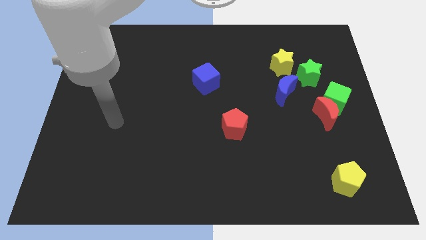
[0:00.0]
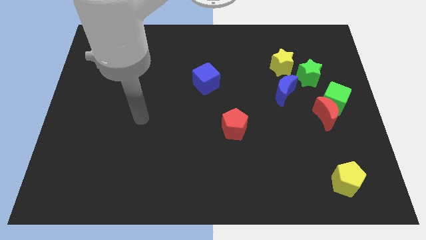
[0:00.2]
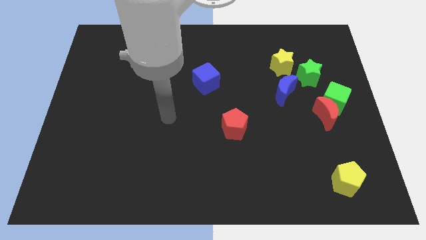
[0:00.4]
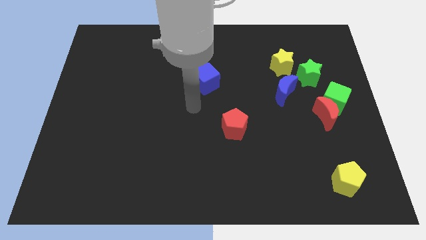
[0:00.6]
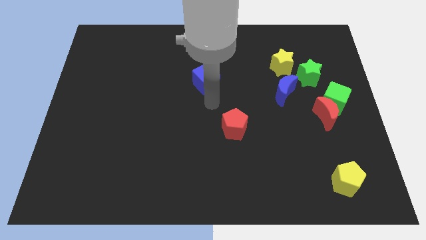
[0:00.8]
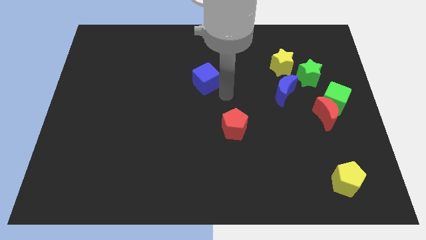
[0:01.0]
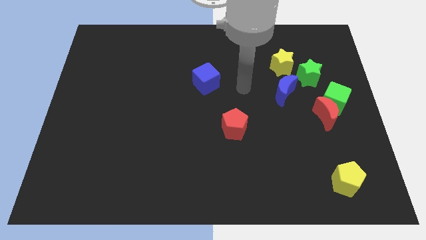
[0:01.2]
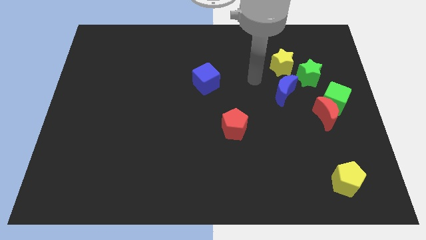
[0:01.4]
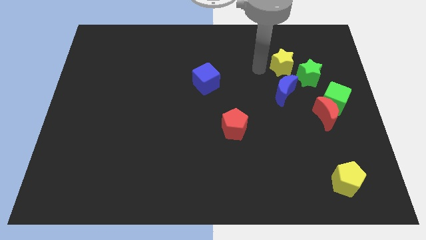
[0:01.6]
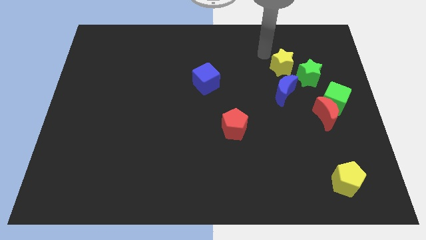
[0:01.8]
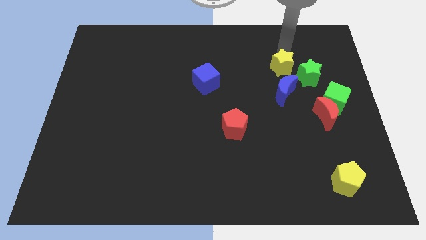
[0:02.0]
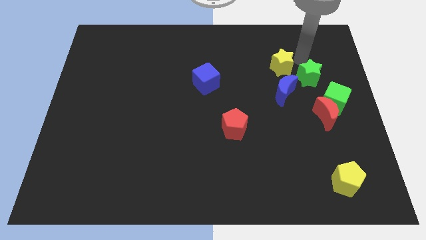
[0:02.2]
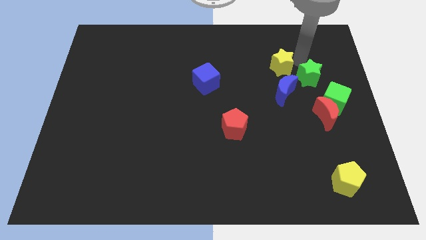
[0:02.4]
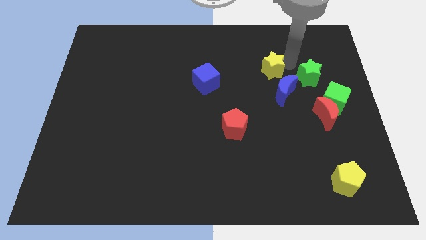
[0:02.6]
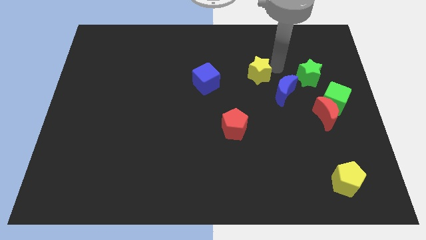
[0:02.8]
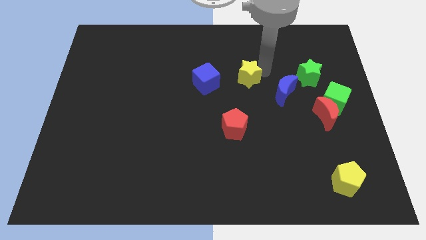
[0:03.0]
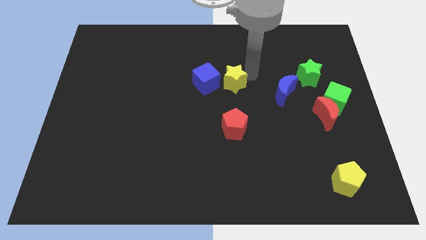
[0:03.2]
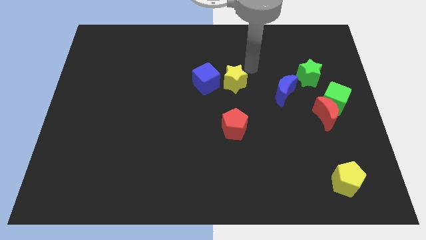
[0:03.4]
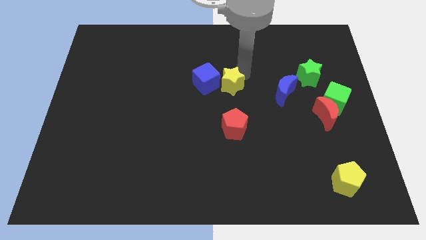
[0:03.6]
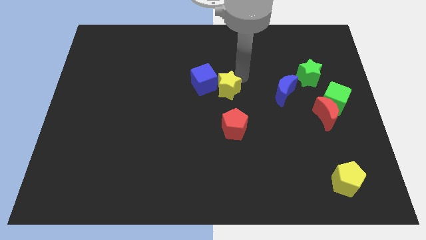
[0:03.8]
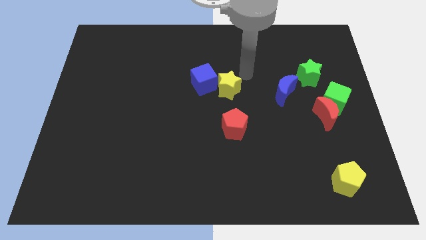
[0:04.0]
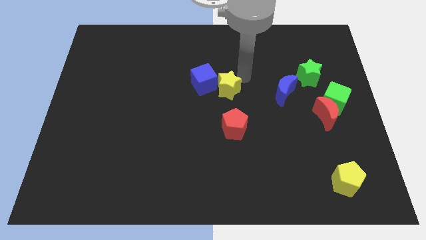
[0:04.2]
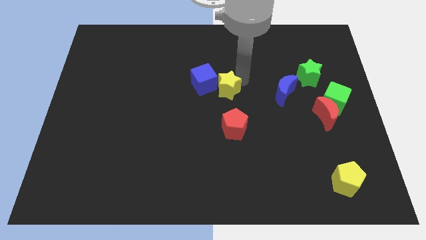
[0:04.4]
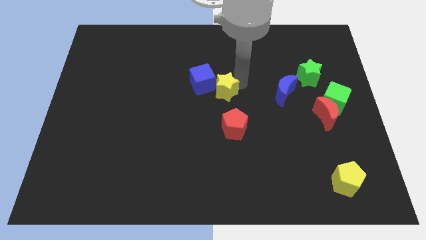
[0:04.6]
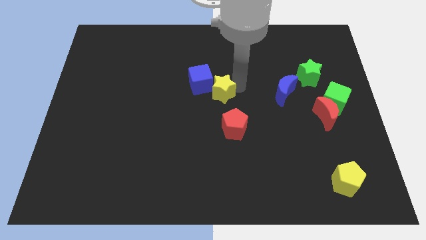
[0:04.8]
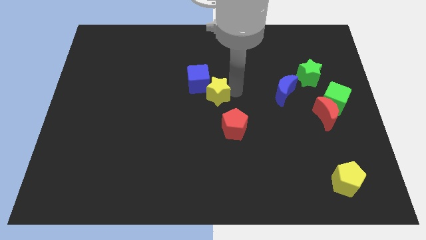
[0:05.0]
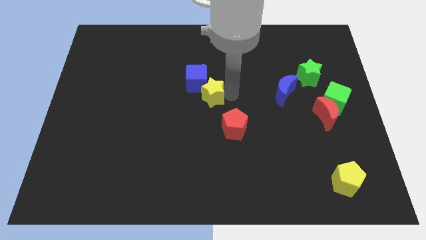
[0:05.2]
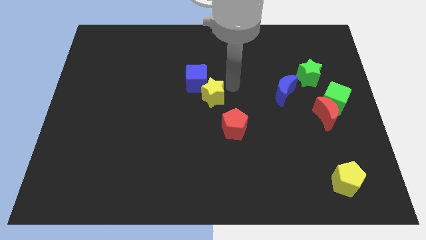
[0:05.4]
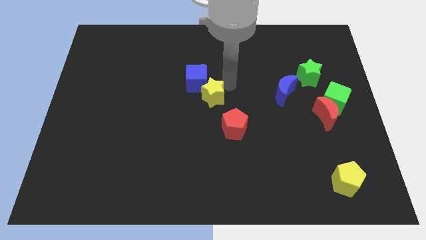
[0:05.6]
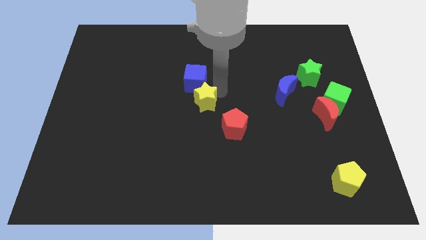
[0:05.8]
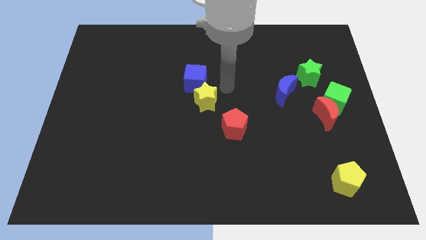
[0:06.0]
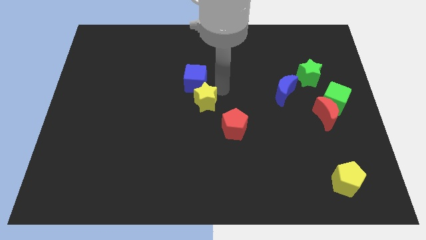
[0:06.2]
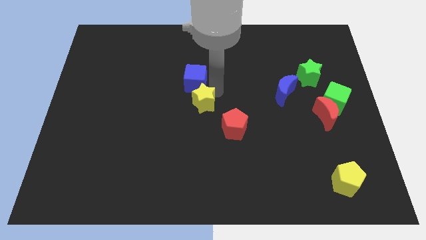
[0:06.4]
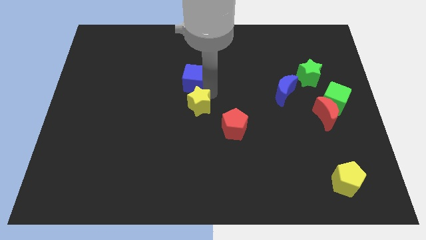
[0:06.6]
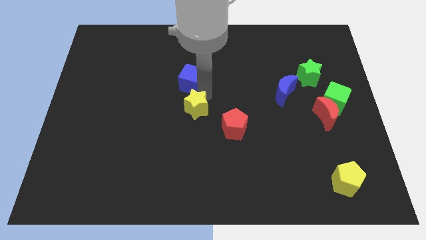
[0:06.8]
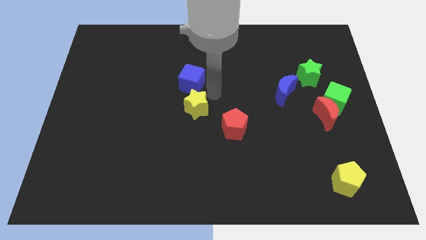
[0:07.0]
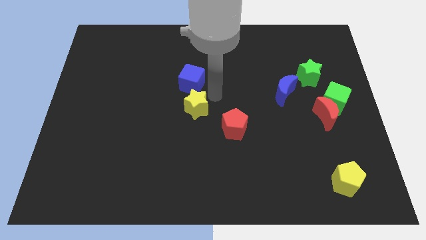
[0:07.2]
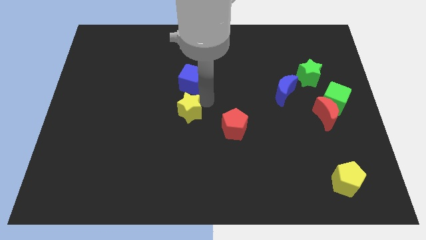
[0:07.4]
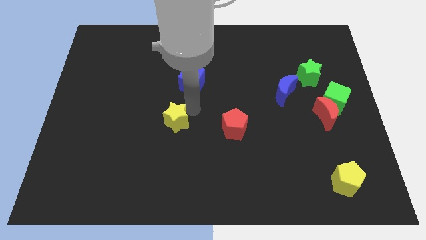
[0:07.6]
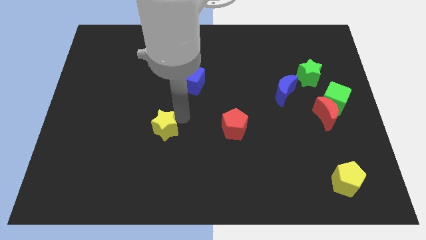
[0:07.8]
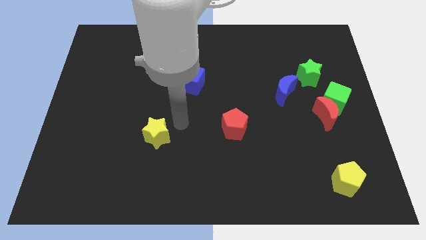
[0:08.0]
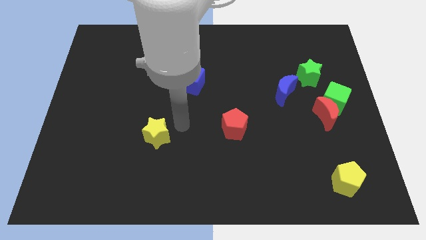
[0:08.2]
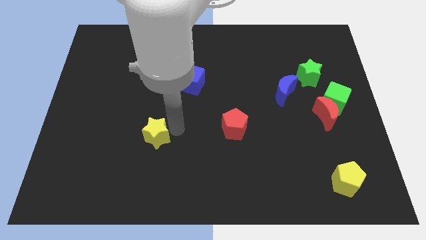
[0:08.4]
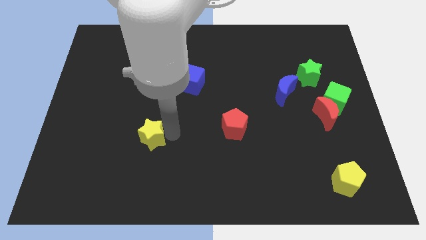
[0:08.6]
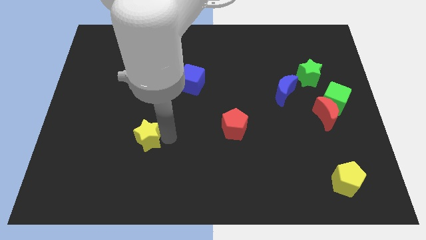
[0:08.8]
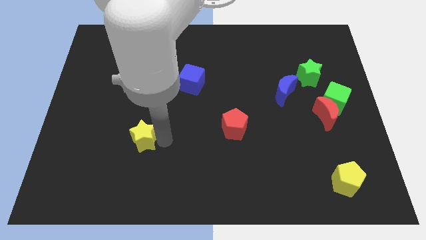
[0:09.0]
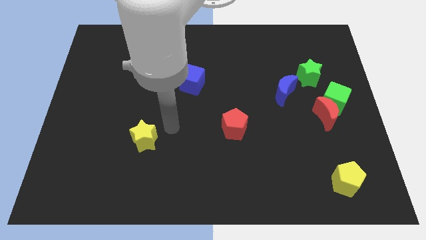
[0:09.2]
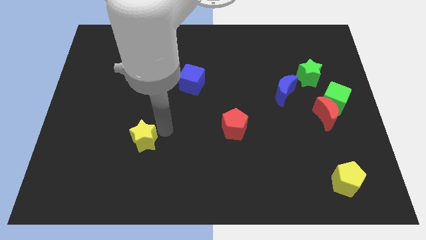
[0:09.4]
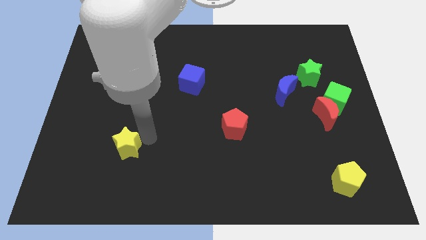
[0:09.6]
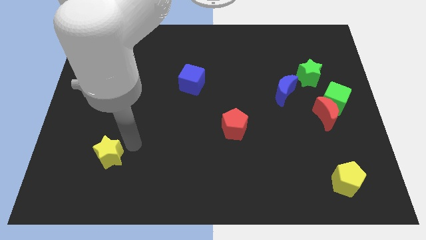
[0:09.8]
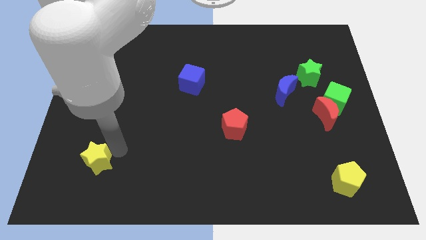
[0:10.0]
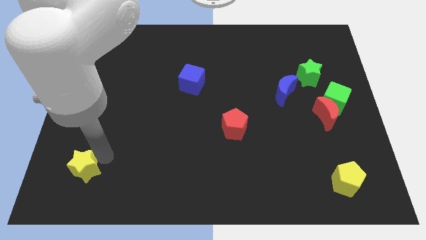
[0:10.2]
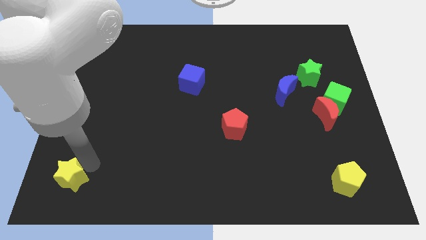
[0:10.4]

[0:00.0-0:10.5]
push the yellow star to the bottom left corner

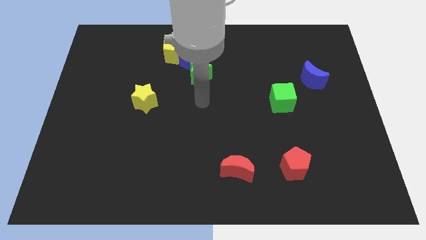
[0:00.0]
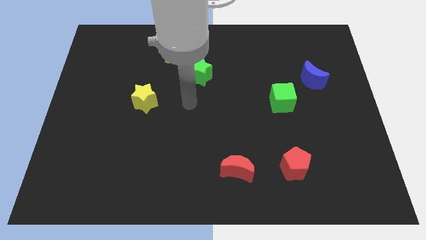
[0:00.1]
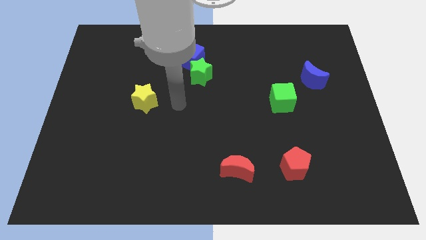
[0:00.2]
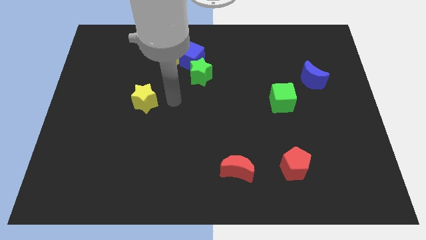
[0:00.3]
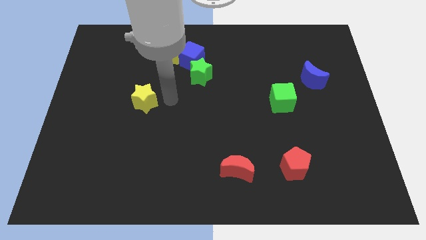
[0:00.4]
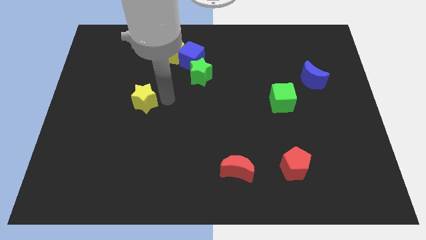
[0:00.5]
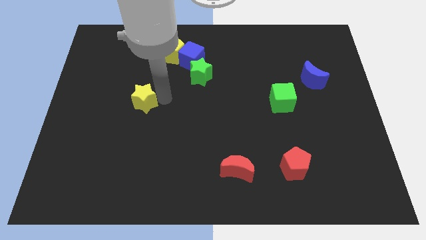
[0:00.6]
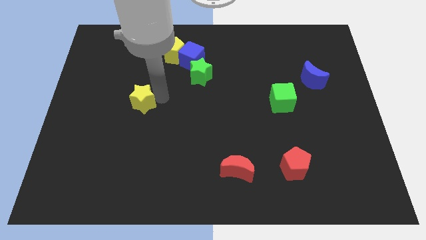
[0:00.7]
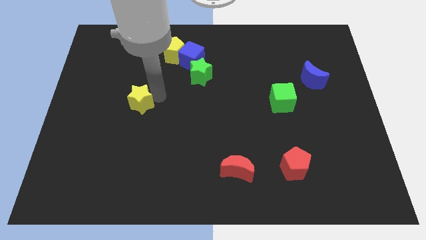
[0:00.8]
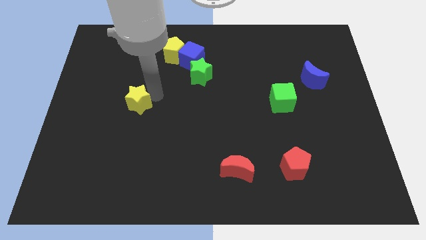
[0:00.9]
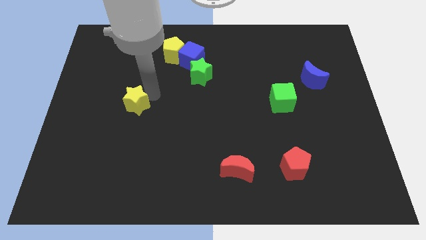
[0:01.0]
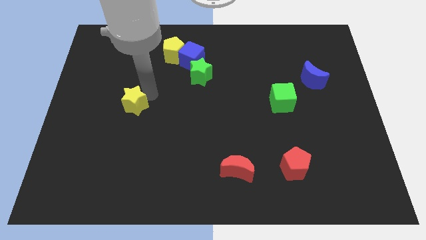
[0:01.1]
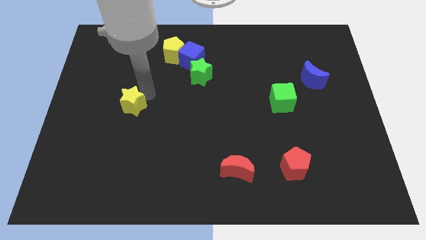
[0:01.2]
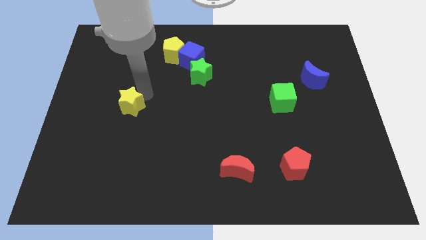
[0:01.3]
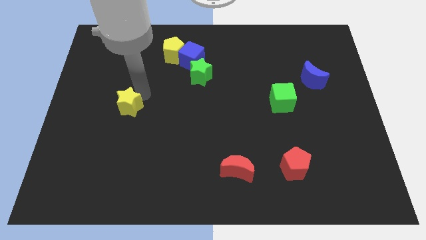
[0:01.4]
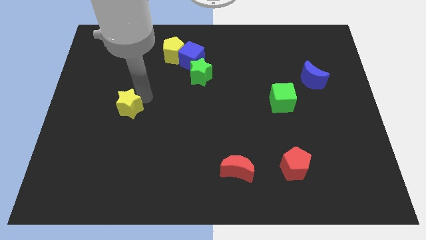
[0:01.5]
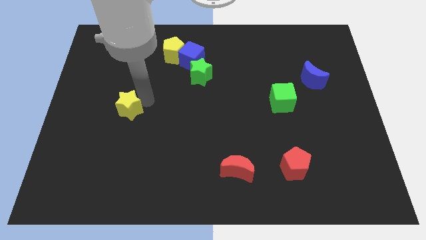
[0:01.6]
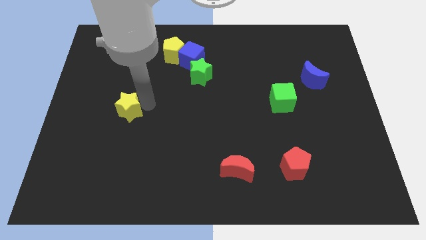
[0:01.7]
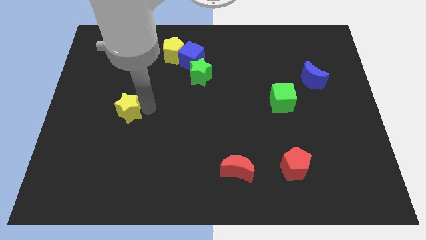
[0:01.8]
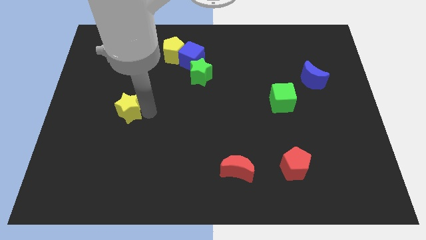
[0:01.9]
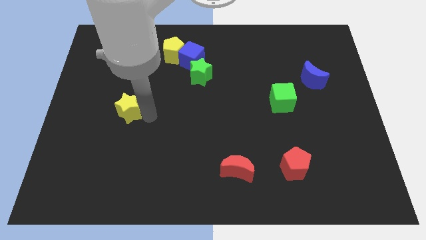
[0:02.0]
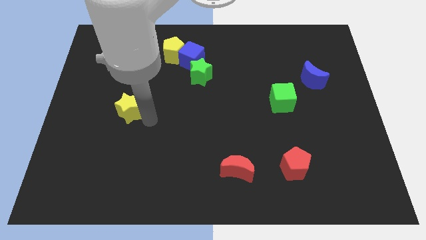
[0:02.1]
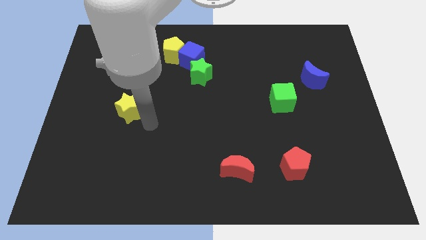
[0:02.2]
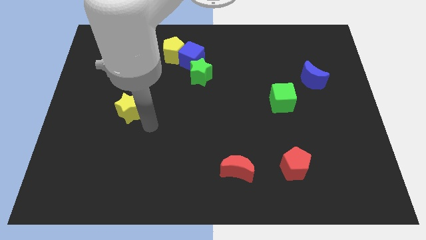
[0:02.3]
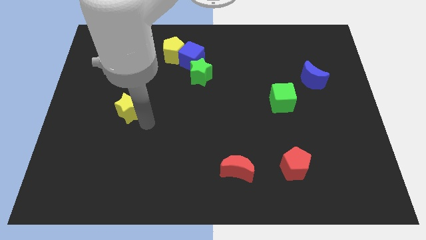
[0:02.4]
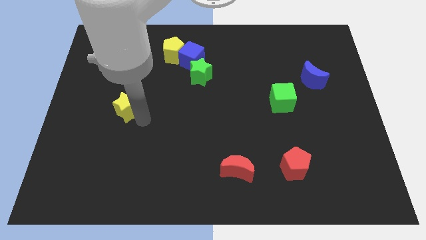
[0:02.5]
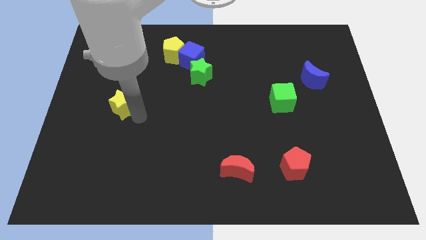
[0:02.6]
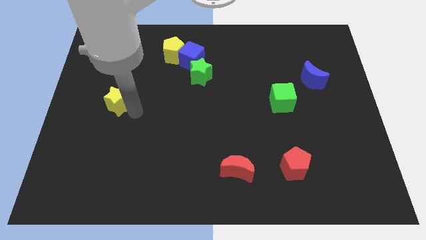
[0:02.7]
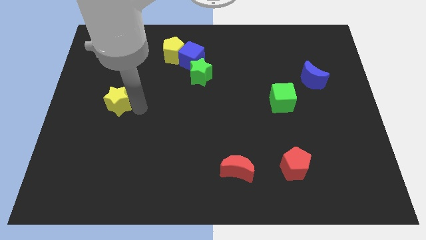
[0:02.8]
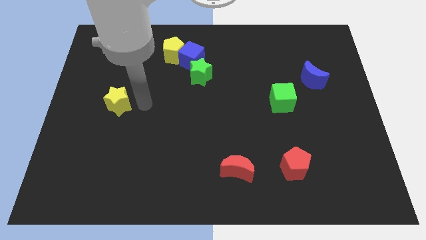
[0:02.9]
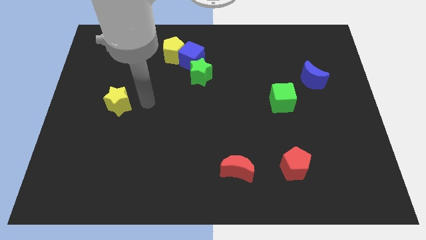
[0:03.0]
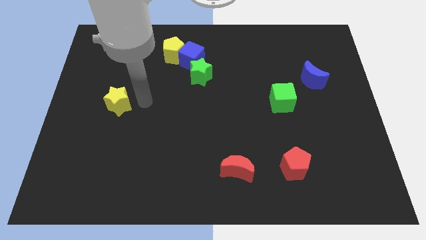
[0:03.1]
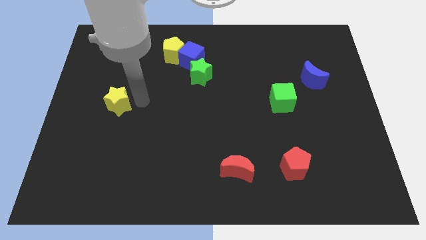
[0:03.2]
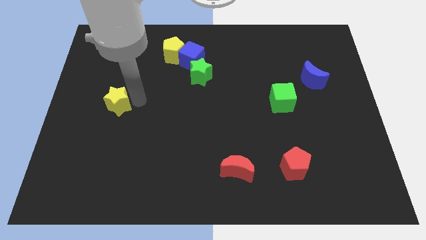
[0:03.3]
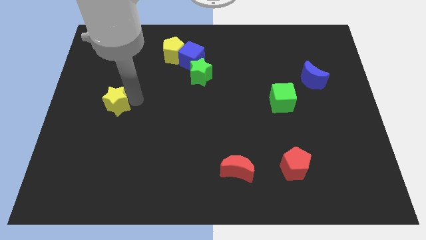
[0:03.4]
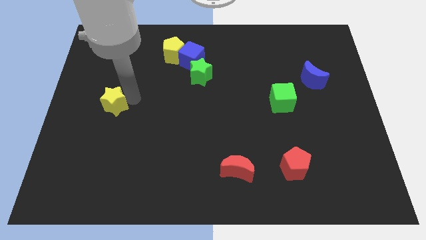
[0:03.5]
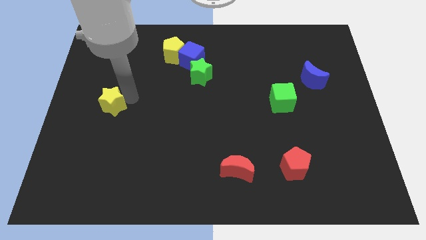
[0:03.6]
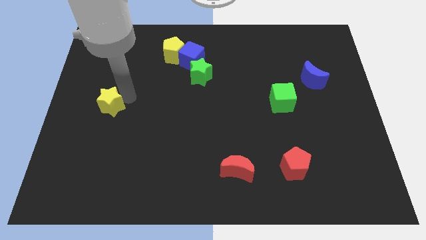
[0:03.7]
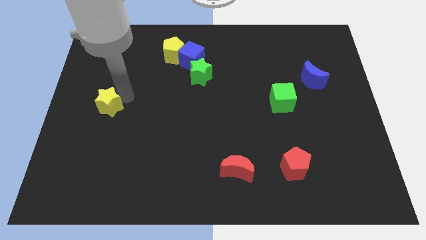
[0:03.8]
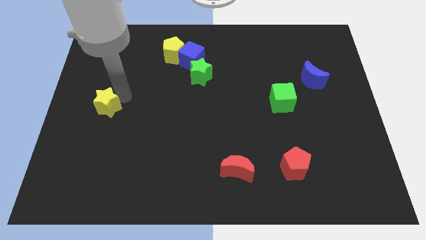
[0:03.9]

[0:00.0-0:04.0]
move the yellow star to the center left
